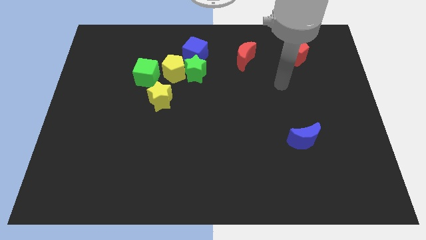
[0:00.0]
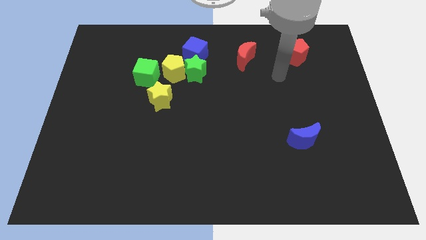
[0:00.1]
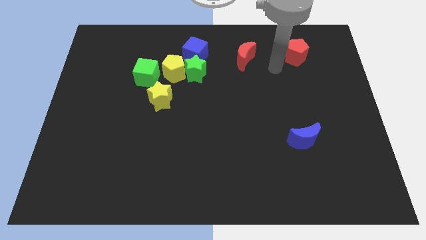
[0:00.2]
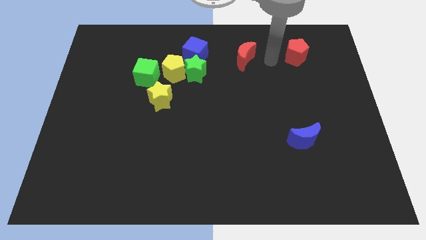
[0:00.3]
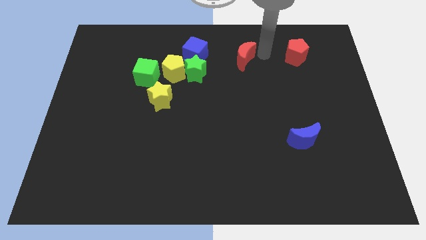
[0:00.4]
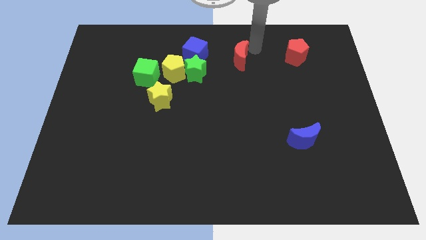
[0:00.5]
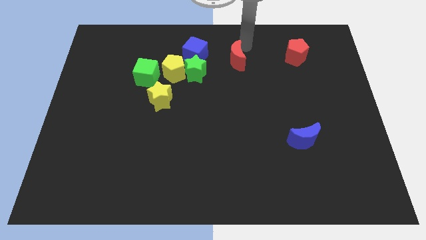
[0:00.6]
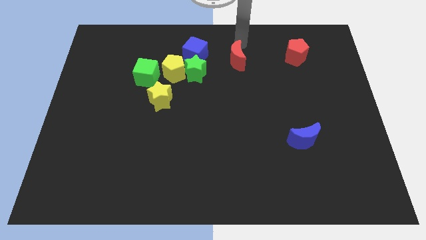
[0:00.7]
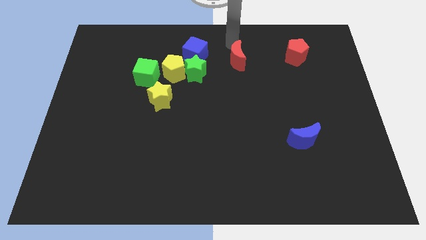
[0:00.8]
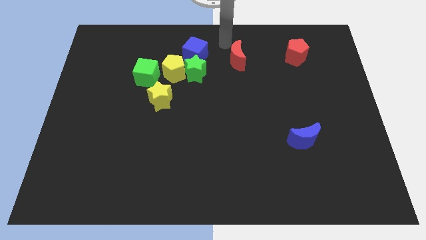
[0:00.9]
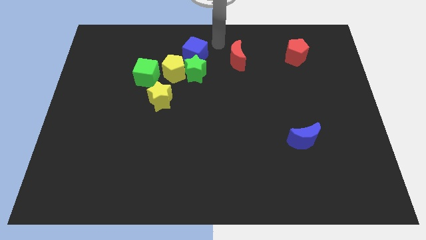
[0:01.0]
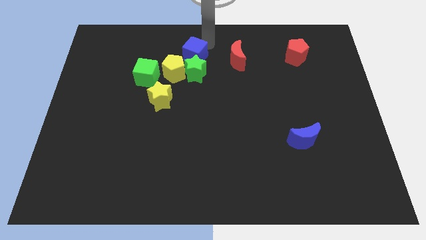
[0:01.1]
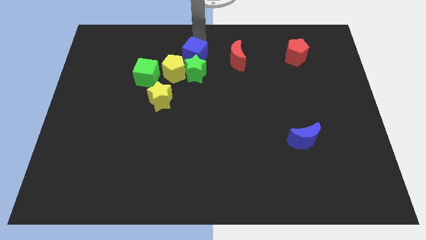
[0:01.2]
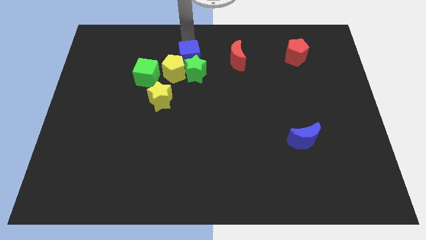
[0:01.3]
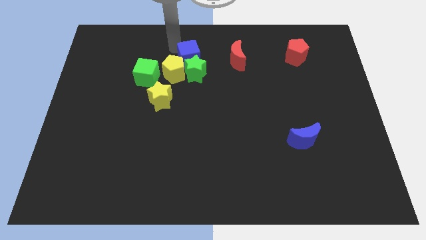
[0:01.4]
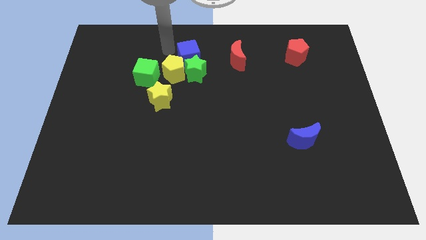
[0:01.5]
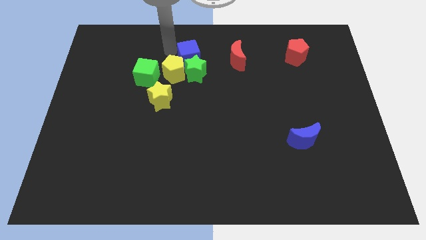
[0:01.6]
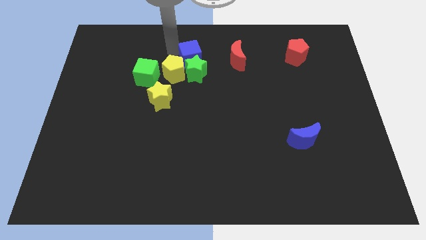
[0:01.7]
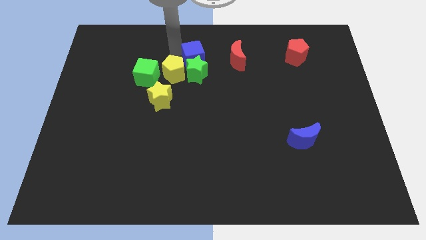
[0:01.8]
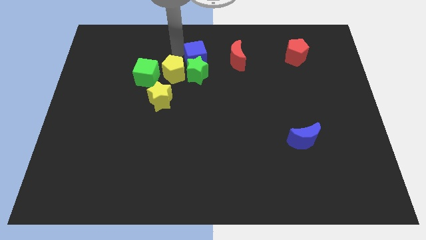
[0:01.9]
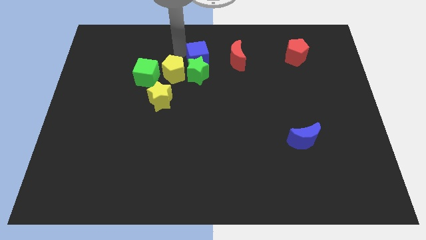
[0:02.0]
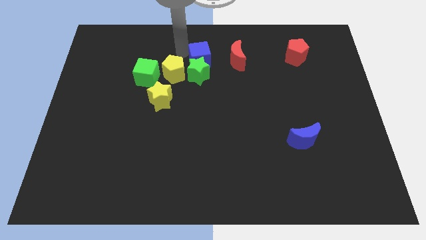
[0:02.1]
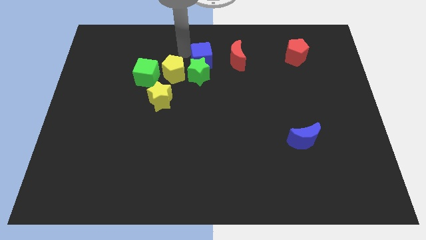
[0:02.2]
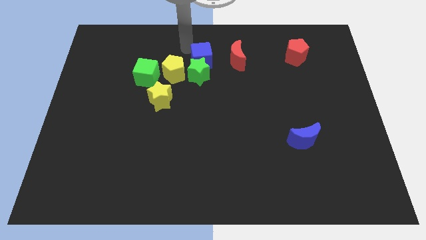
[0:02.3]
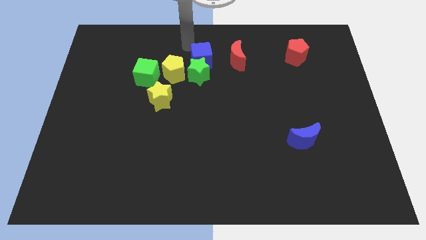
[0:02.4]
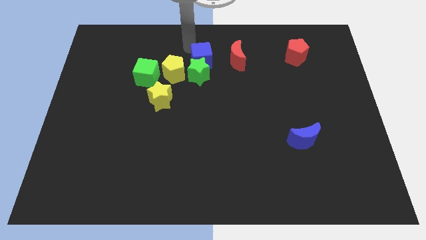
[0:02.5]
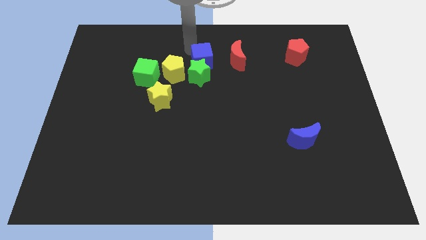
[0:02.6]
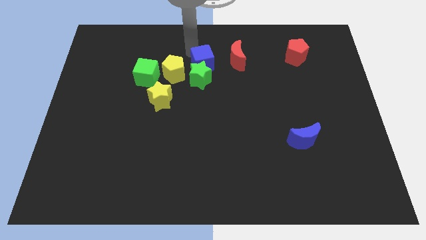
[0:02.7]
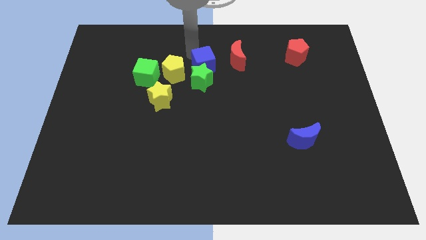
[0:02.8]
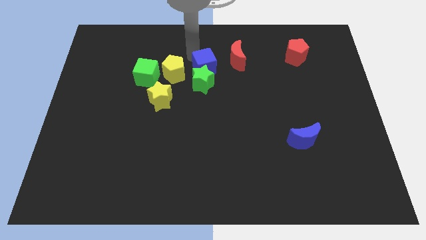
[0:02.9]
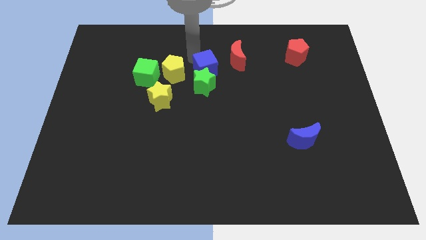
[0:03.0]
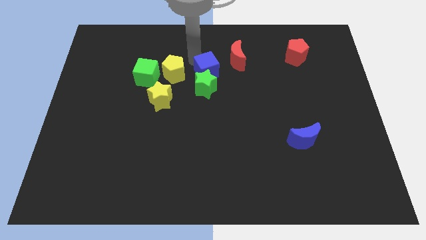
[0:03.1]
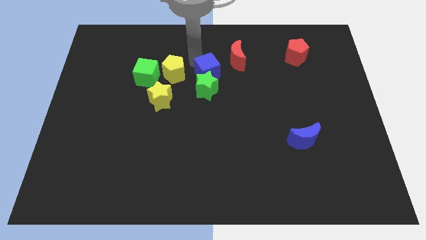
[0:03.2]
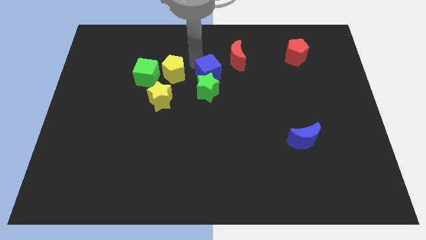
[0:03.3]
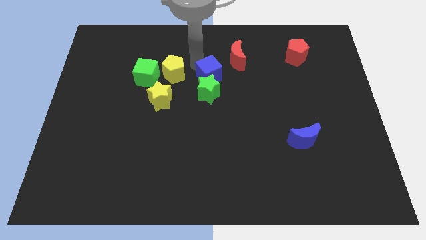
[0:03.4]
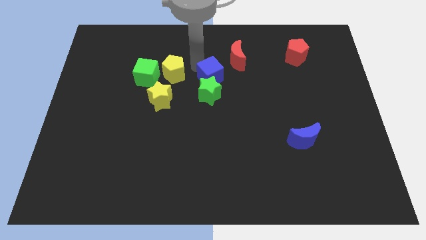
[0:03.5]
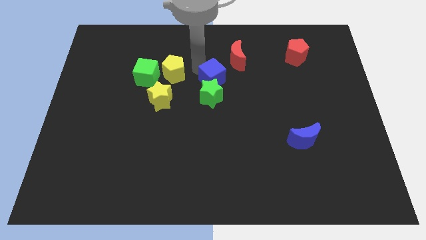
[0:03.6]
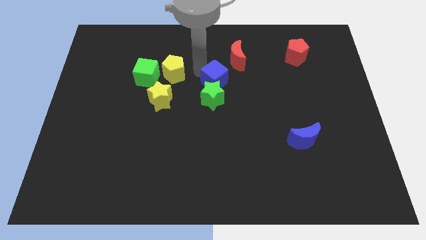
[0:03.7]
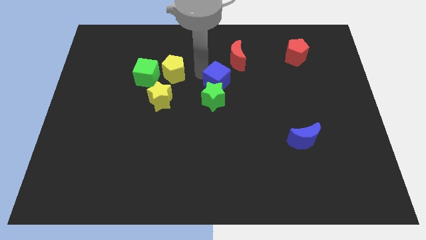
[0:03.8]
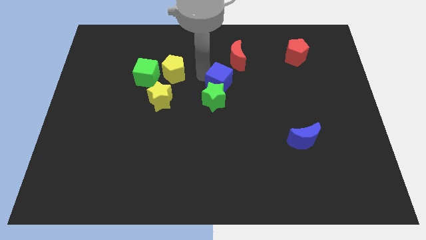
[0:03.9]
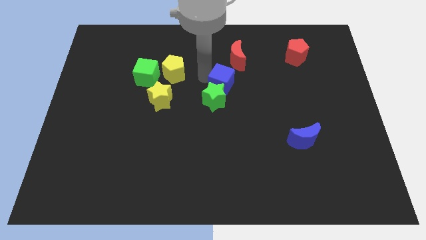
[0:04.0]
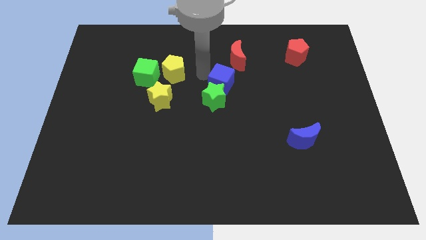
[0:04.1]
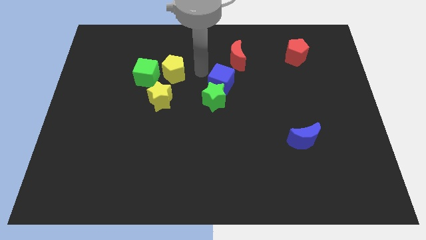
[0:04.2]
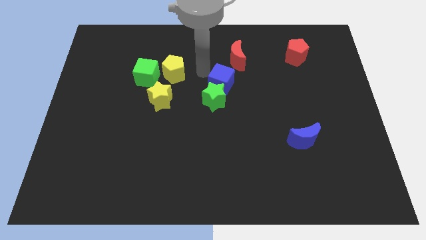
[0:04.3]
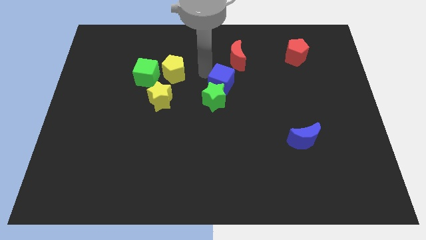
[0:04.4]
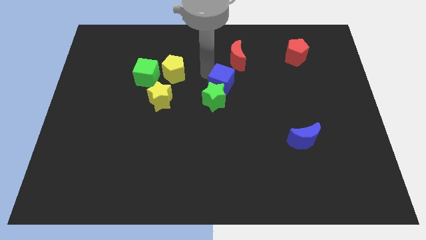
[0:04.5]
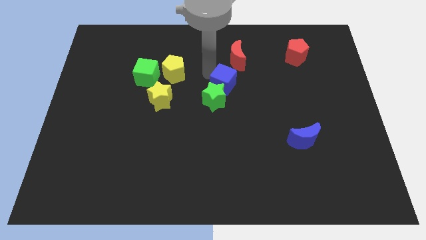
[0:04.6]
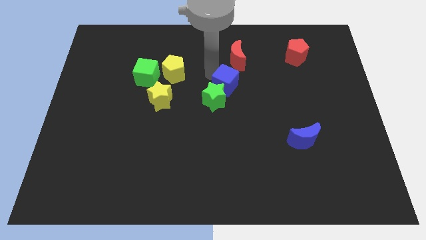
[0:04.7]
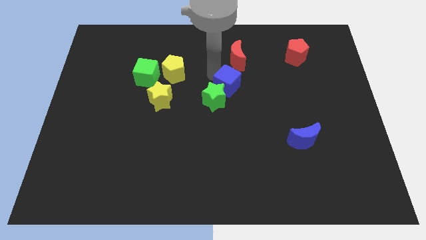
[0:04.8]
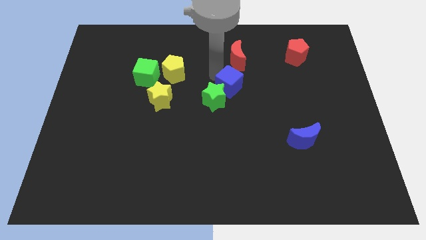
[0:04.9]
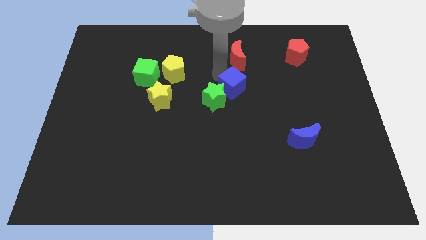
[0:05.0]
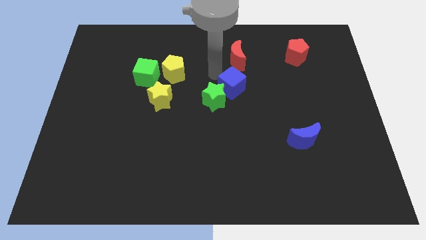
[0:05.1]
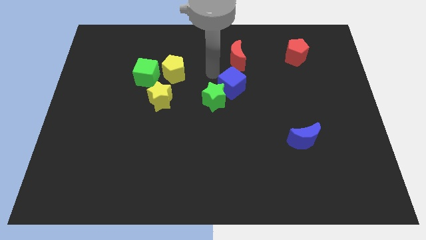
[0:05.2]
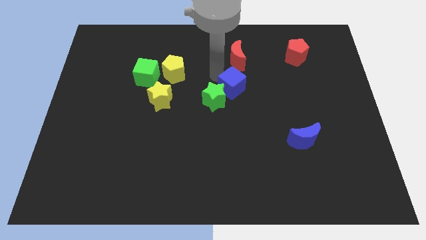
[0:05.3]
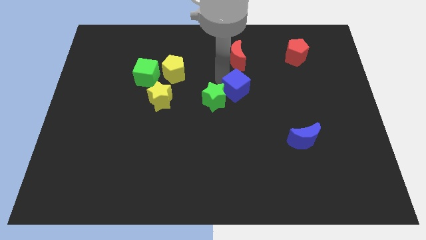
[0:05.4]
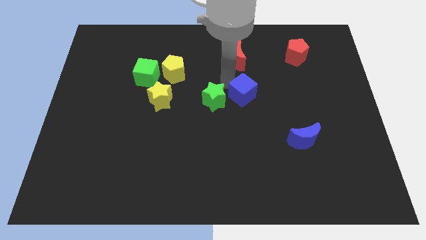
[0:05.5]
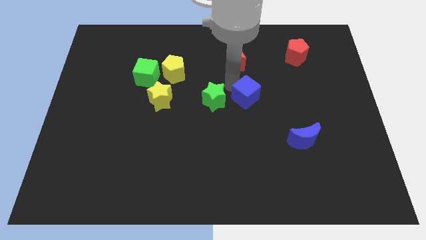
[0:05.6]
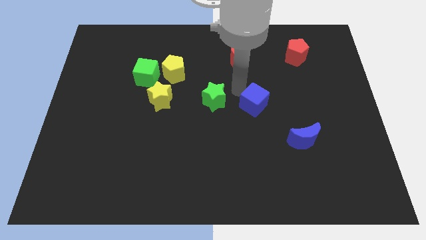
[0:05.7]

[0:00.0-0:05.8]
slide the blue cube down and then right

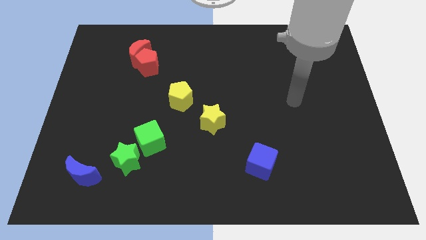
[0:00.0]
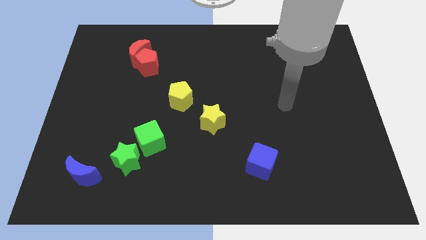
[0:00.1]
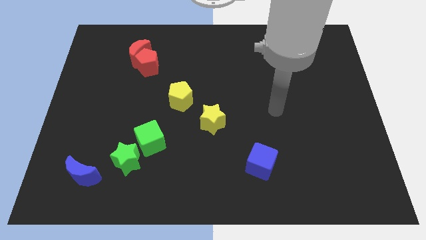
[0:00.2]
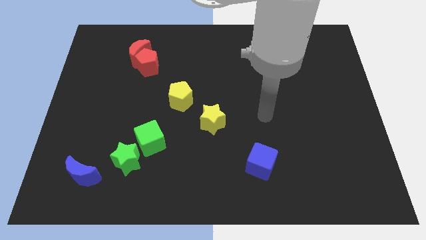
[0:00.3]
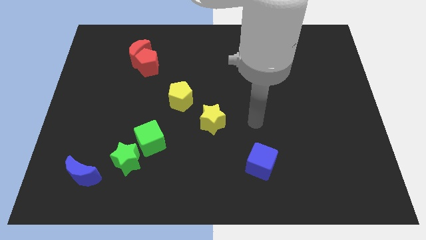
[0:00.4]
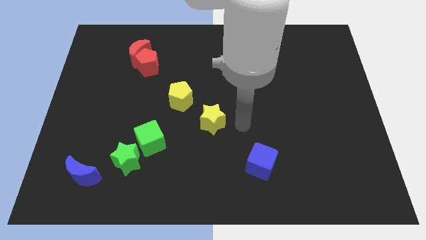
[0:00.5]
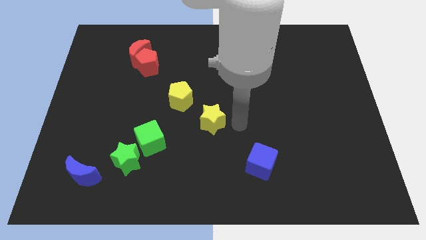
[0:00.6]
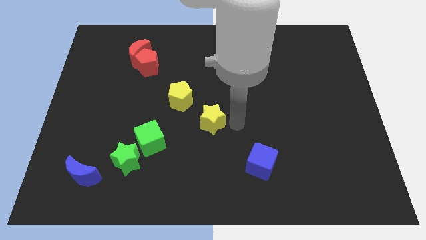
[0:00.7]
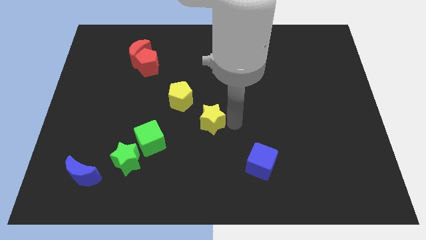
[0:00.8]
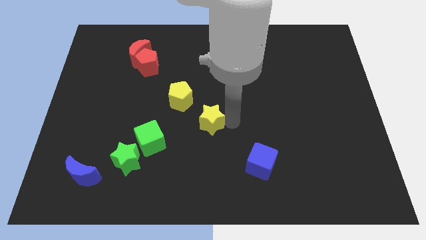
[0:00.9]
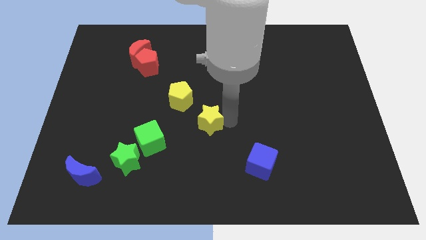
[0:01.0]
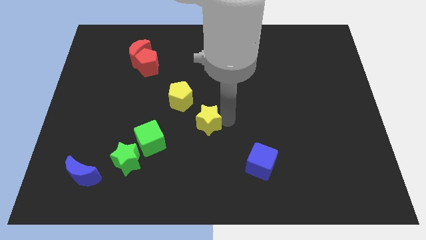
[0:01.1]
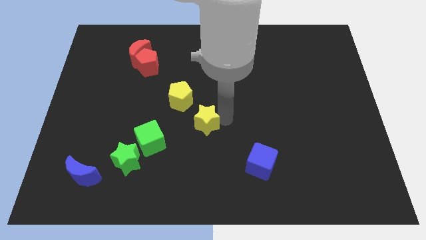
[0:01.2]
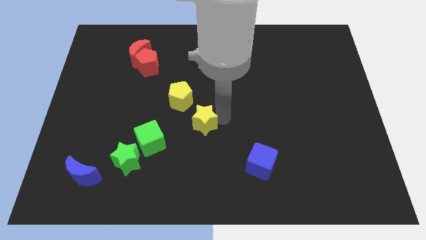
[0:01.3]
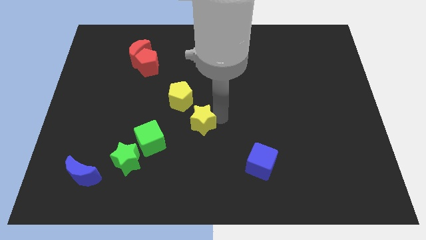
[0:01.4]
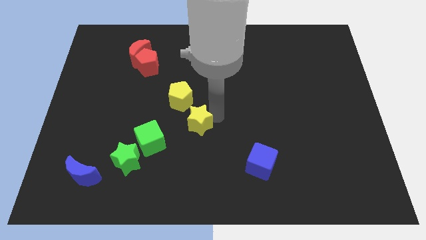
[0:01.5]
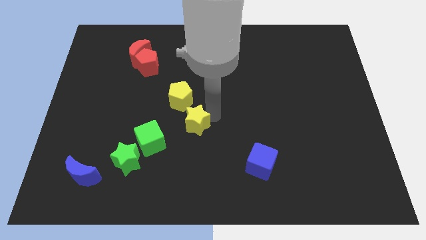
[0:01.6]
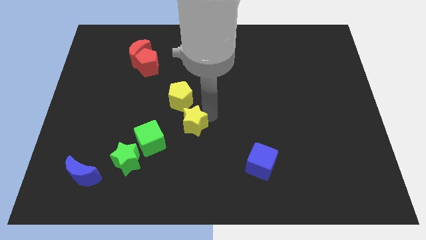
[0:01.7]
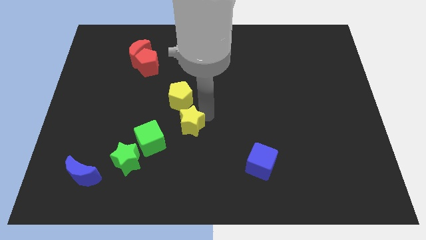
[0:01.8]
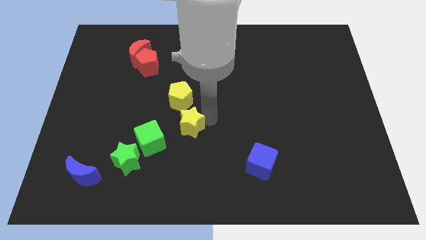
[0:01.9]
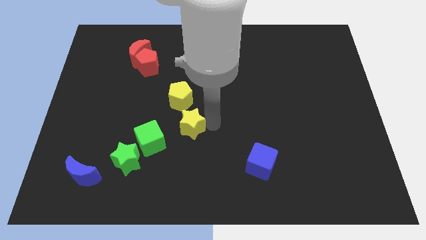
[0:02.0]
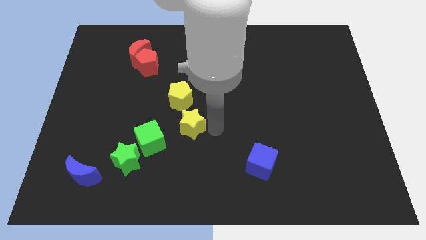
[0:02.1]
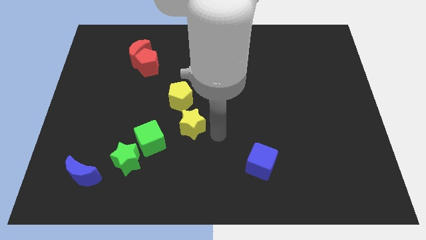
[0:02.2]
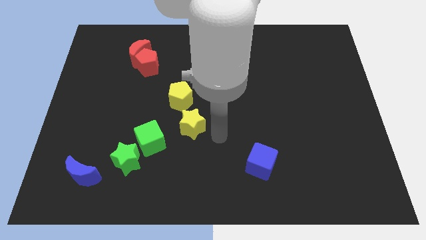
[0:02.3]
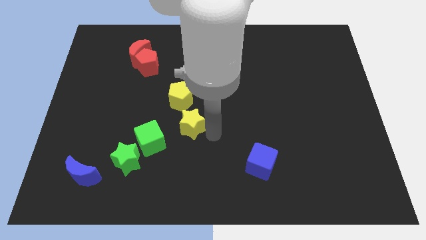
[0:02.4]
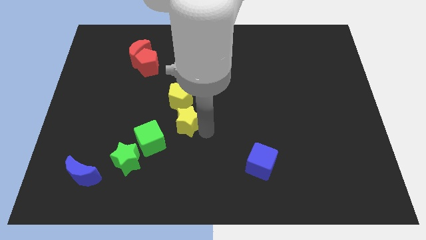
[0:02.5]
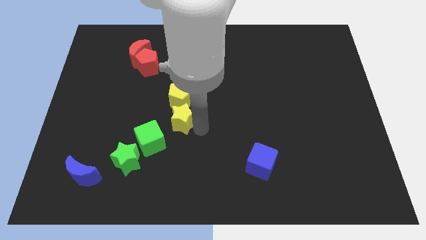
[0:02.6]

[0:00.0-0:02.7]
push the yellow star left a little
